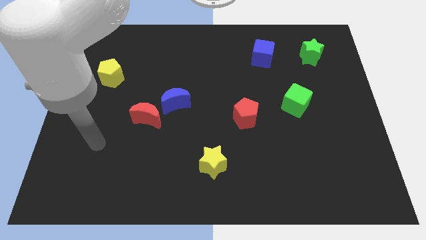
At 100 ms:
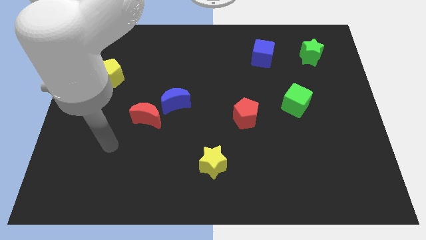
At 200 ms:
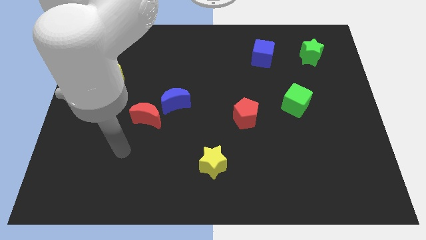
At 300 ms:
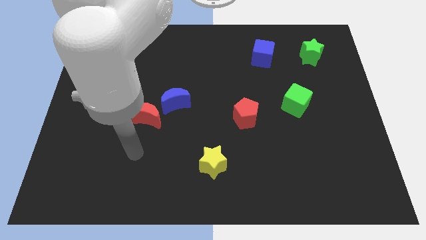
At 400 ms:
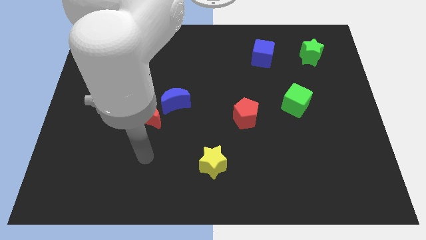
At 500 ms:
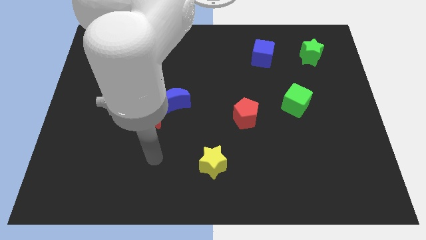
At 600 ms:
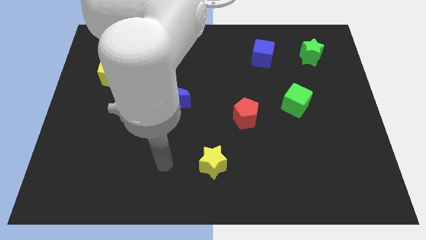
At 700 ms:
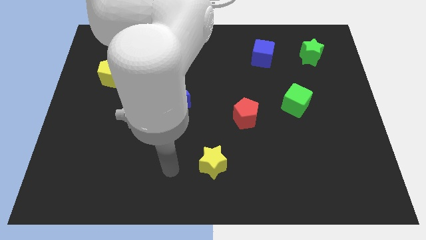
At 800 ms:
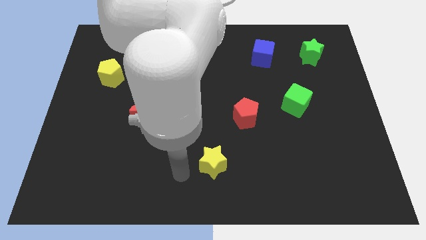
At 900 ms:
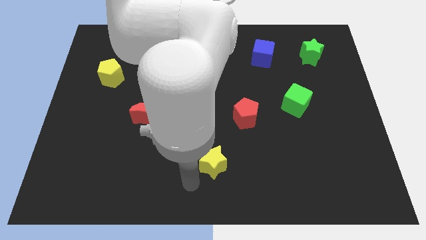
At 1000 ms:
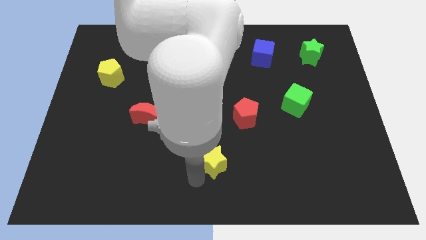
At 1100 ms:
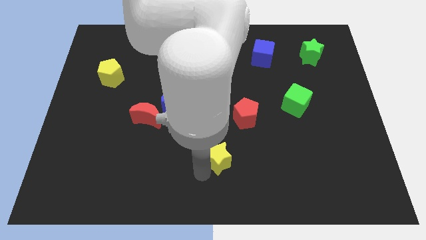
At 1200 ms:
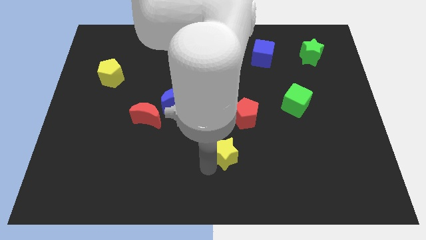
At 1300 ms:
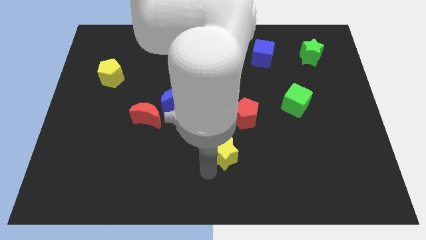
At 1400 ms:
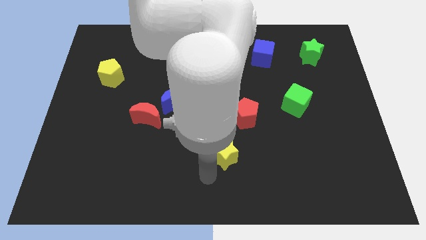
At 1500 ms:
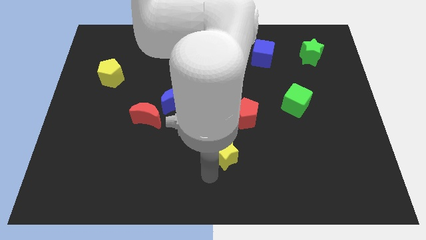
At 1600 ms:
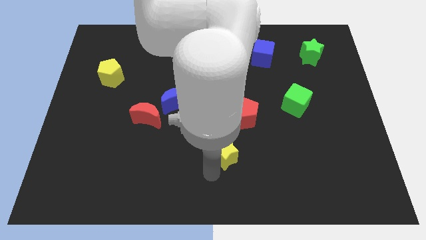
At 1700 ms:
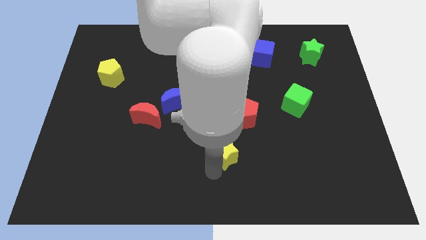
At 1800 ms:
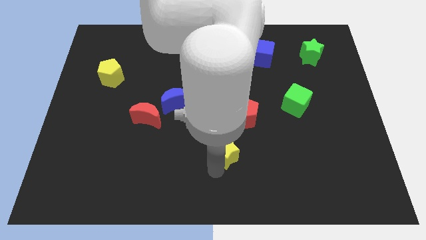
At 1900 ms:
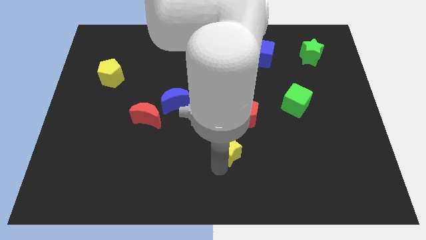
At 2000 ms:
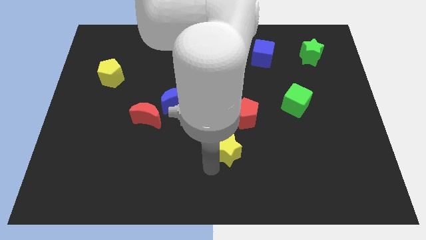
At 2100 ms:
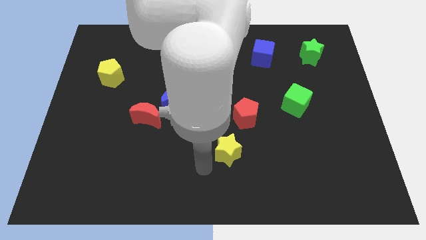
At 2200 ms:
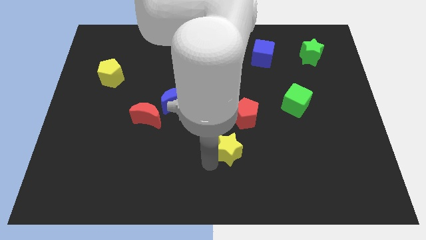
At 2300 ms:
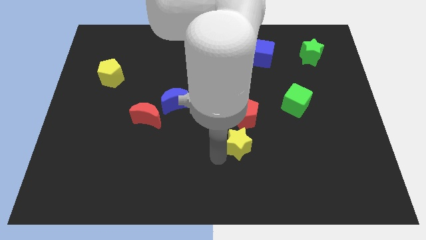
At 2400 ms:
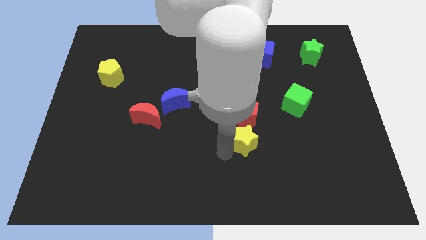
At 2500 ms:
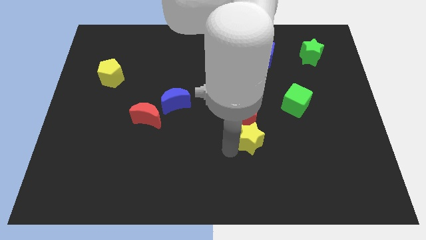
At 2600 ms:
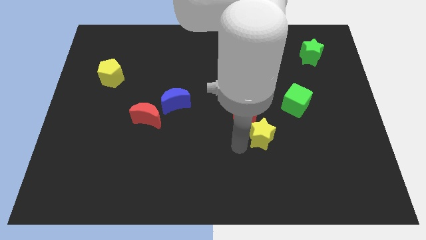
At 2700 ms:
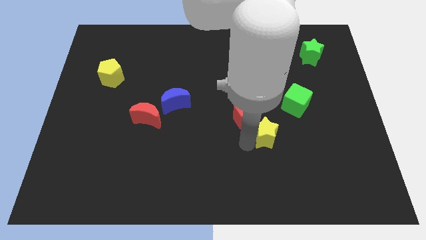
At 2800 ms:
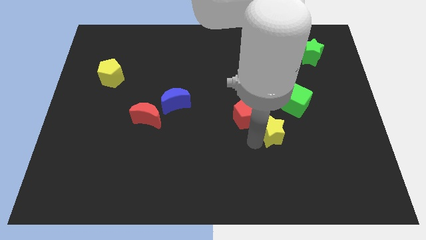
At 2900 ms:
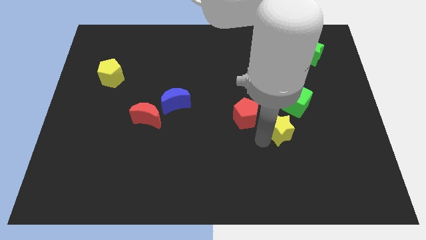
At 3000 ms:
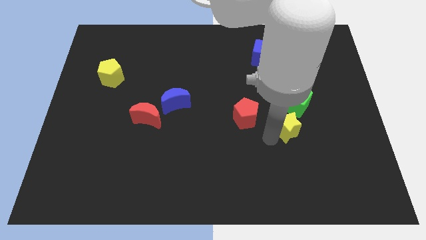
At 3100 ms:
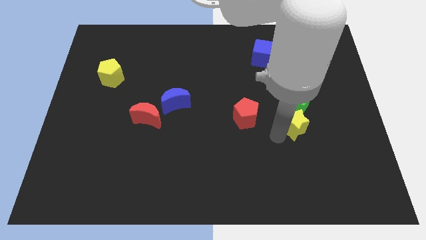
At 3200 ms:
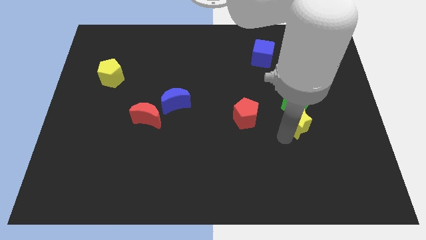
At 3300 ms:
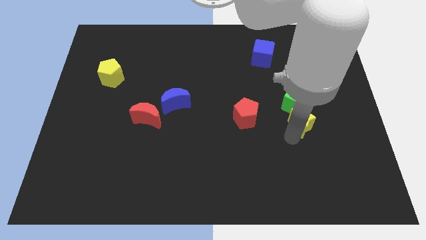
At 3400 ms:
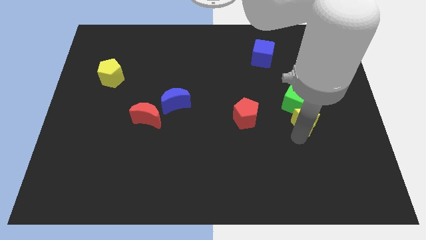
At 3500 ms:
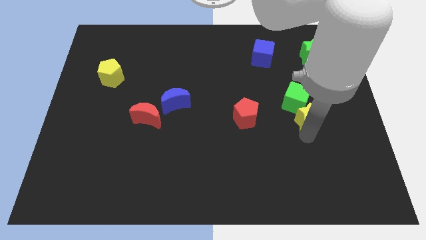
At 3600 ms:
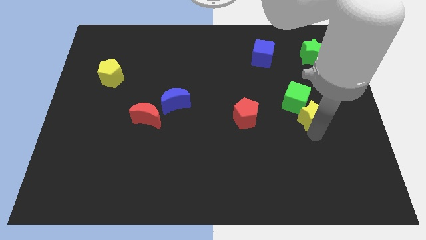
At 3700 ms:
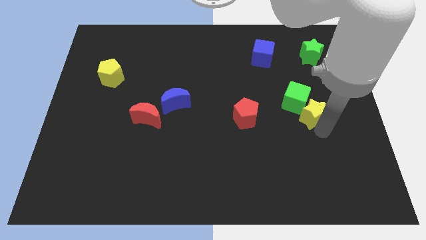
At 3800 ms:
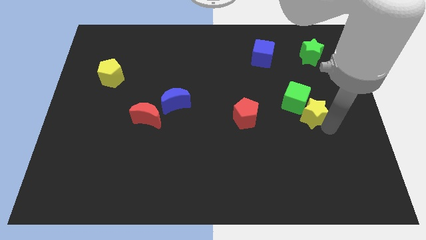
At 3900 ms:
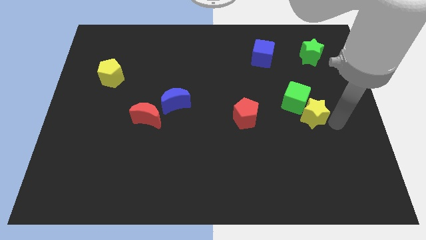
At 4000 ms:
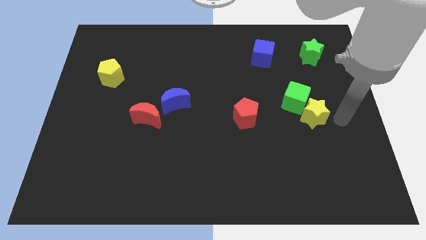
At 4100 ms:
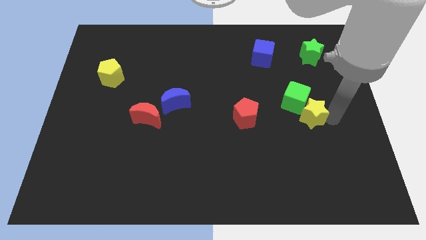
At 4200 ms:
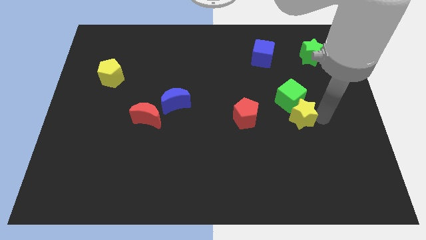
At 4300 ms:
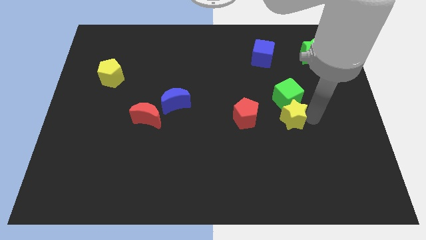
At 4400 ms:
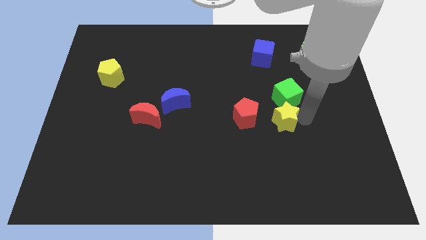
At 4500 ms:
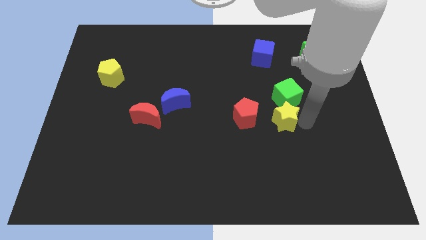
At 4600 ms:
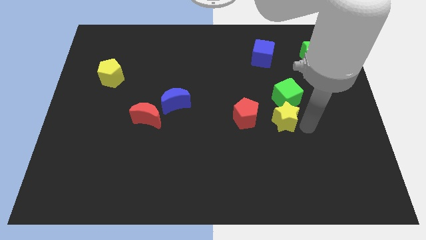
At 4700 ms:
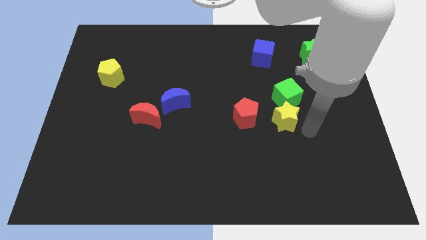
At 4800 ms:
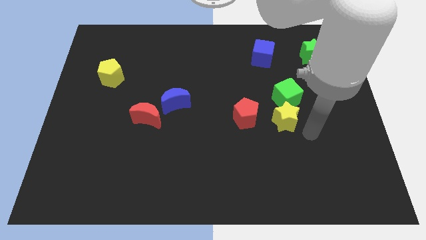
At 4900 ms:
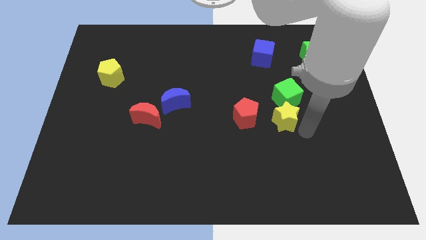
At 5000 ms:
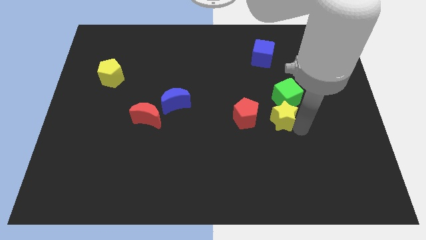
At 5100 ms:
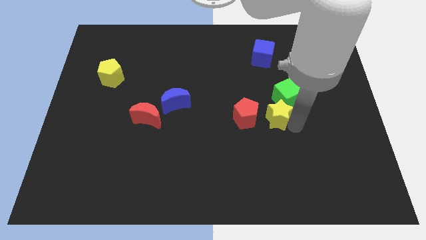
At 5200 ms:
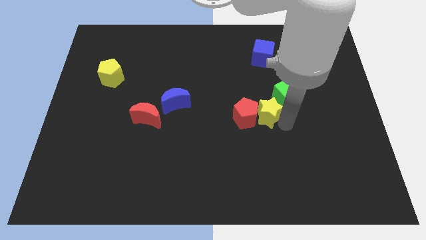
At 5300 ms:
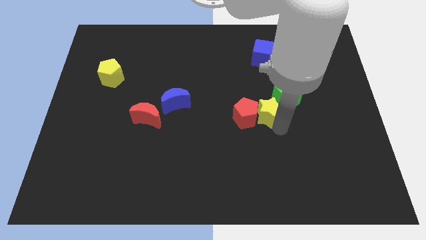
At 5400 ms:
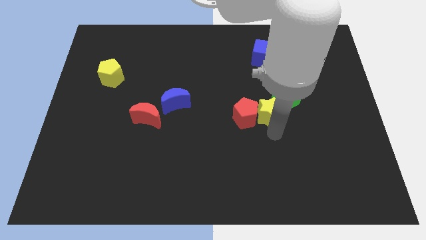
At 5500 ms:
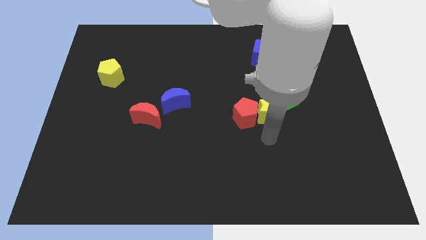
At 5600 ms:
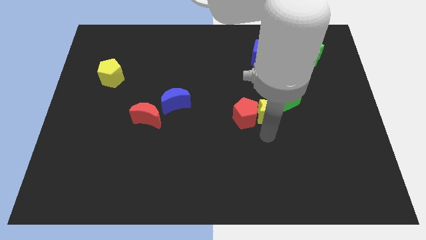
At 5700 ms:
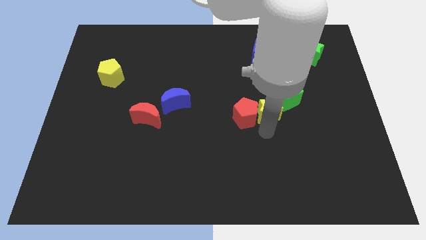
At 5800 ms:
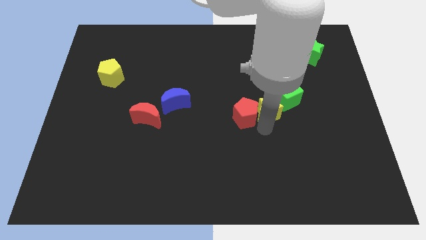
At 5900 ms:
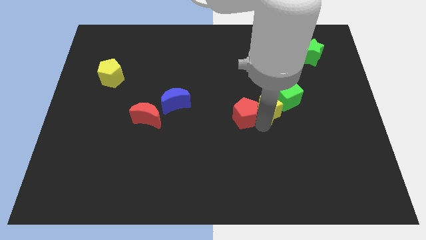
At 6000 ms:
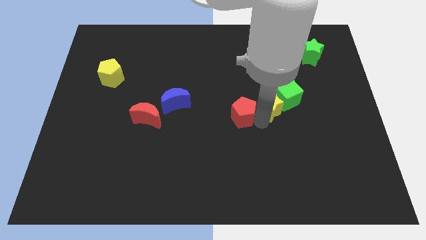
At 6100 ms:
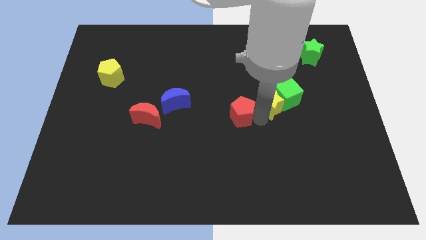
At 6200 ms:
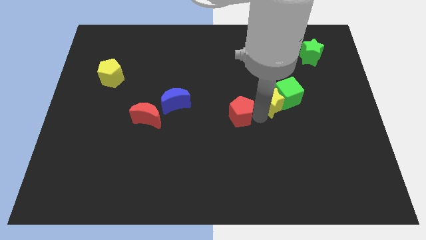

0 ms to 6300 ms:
put the yellow star below the blue cube

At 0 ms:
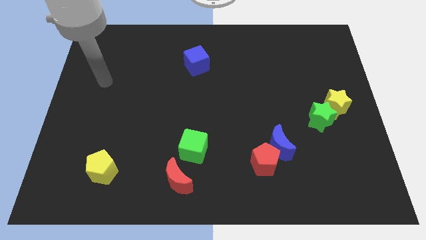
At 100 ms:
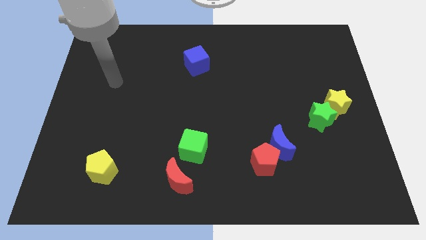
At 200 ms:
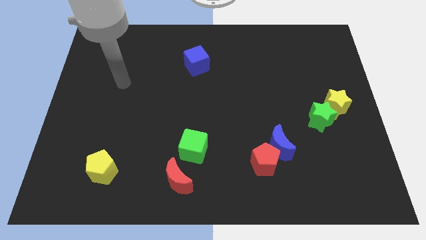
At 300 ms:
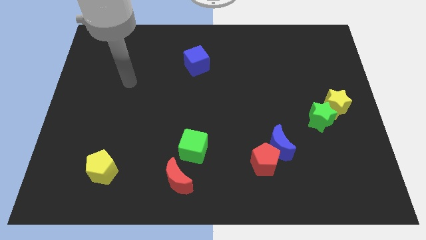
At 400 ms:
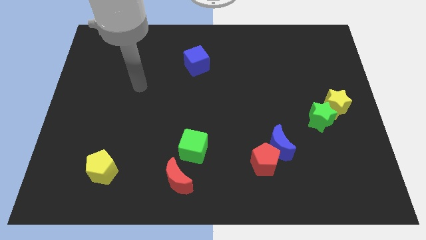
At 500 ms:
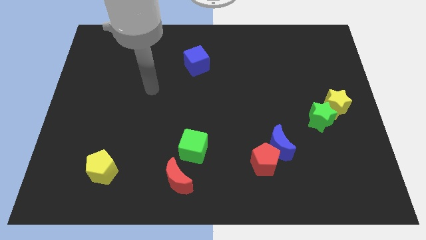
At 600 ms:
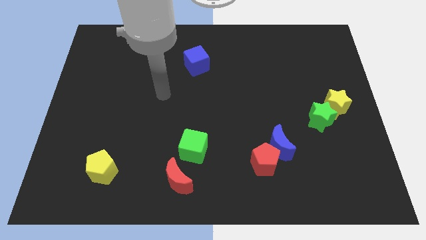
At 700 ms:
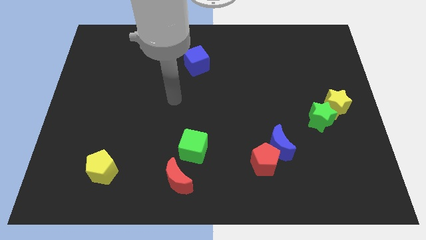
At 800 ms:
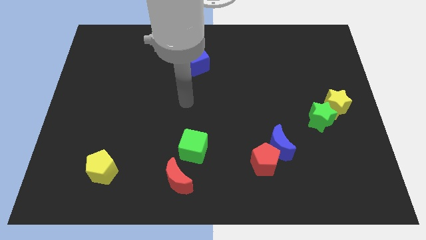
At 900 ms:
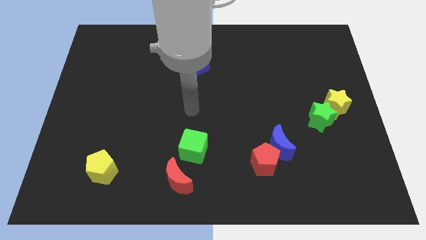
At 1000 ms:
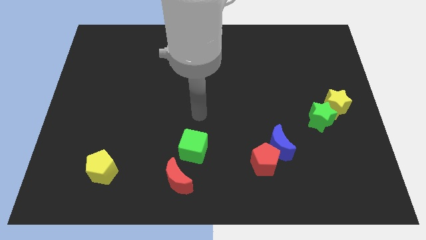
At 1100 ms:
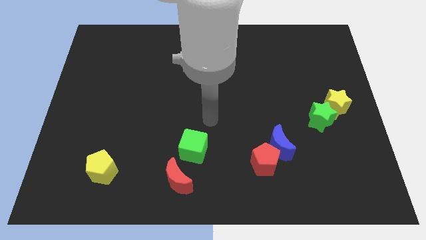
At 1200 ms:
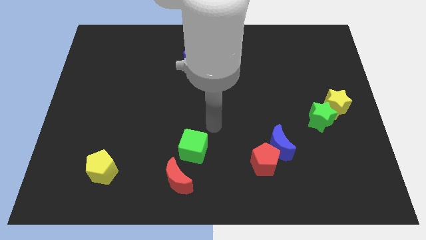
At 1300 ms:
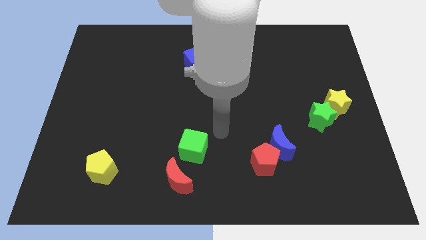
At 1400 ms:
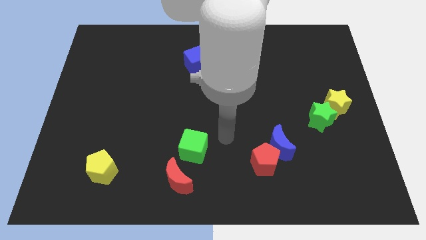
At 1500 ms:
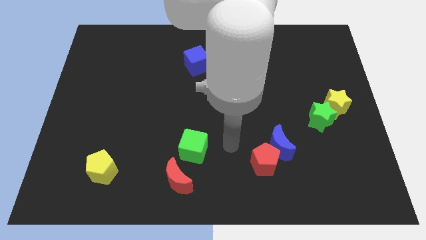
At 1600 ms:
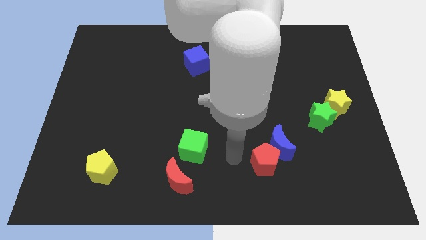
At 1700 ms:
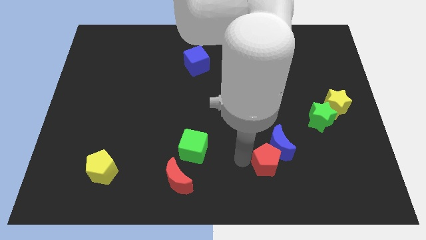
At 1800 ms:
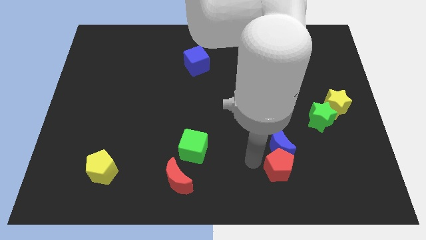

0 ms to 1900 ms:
push the red pentagon diagonally down and to the right of the blue moon
